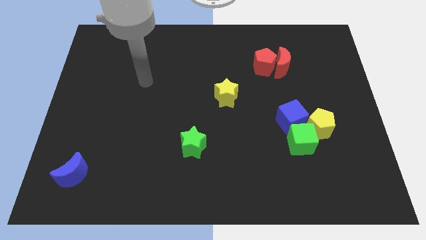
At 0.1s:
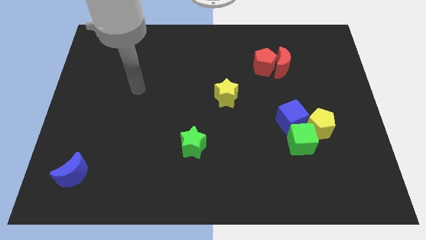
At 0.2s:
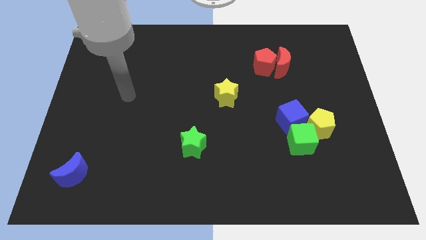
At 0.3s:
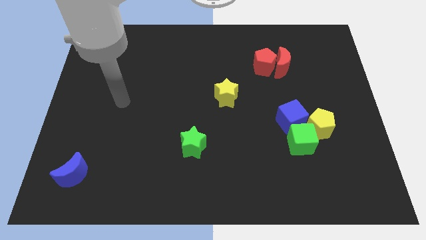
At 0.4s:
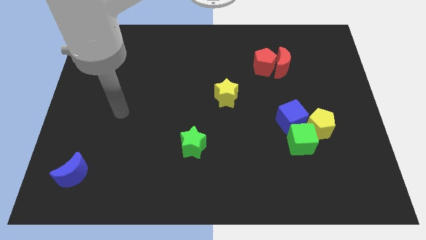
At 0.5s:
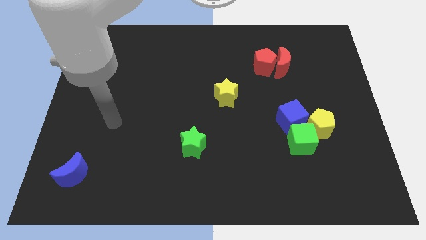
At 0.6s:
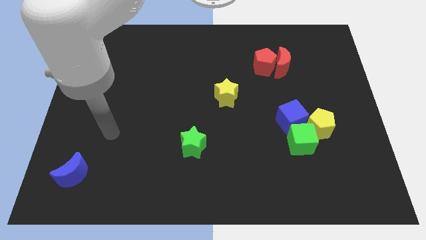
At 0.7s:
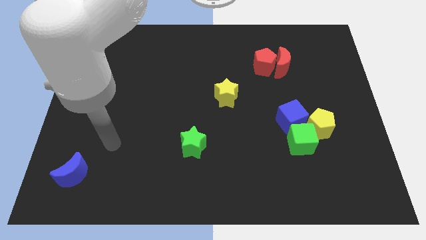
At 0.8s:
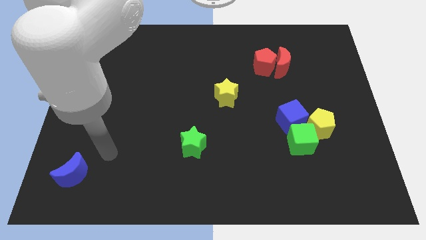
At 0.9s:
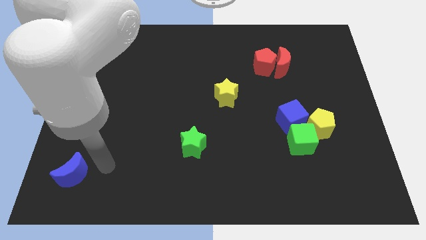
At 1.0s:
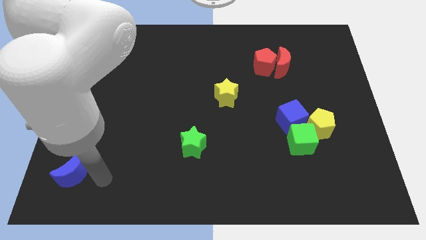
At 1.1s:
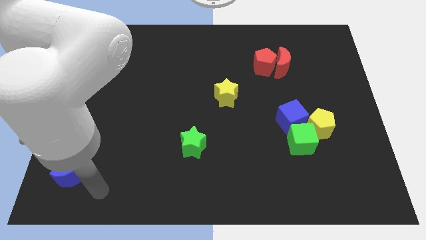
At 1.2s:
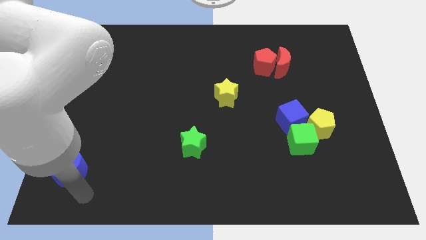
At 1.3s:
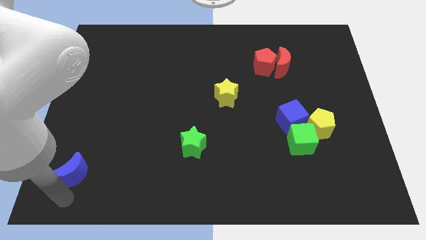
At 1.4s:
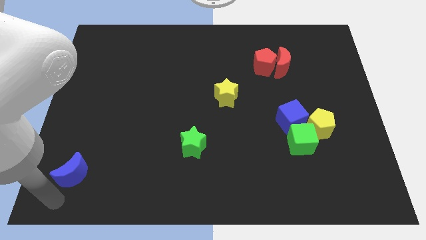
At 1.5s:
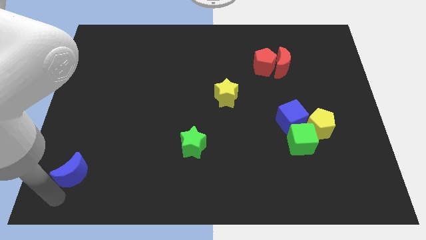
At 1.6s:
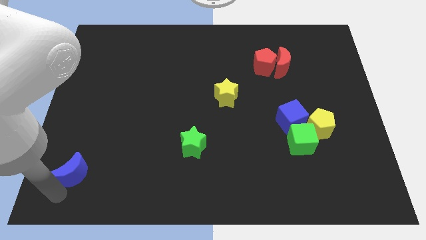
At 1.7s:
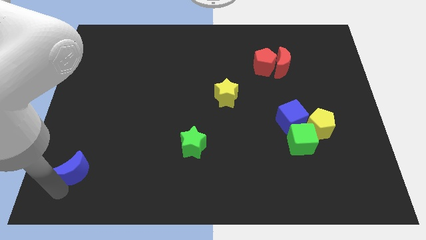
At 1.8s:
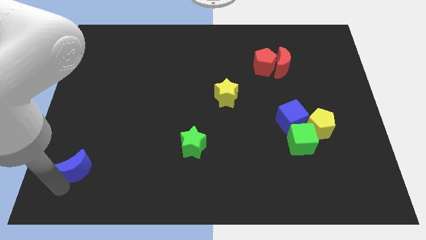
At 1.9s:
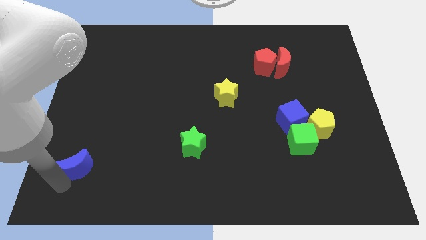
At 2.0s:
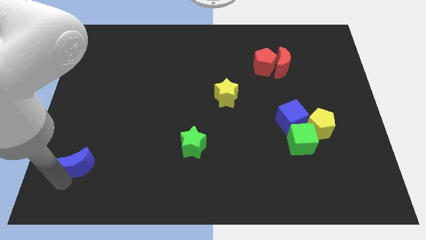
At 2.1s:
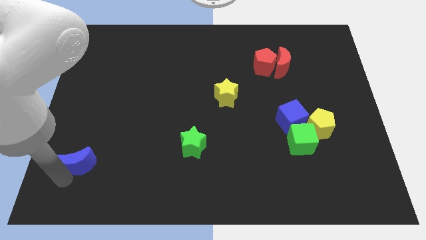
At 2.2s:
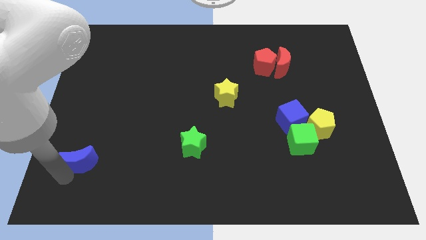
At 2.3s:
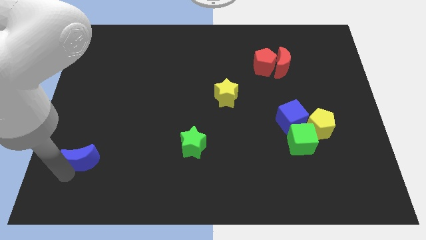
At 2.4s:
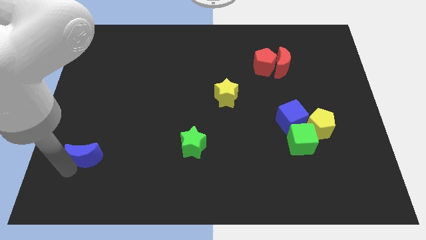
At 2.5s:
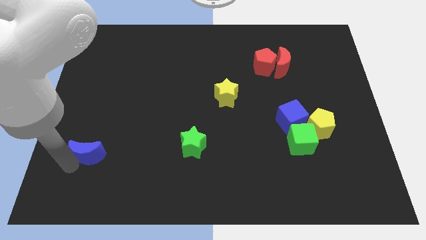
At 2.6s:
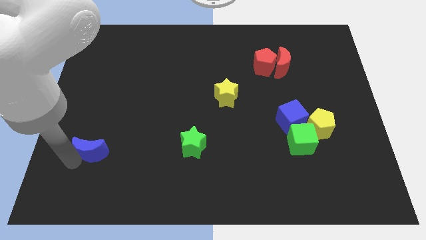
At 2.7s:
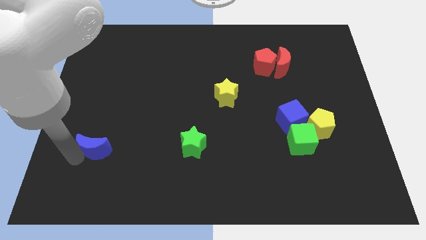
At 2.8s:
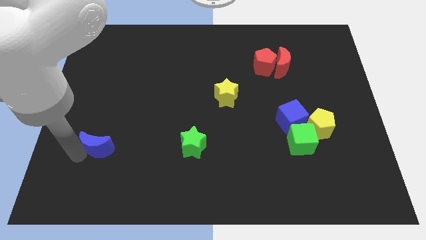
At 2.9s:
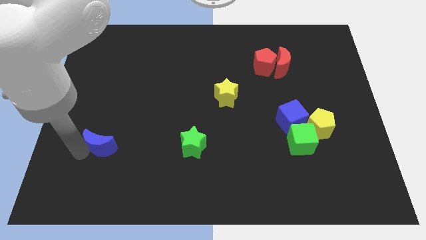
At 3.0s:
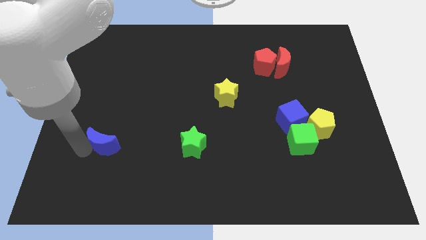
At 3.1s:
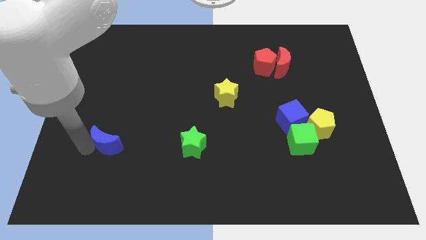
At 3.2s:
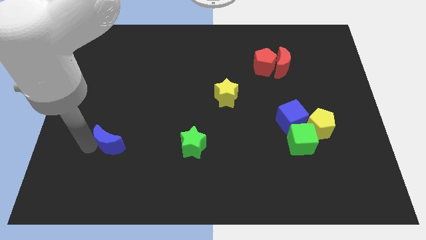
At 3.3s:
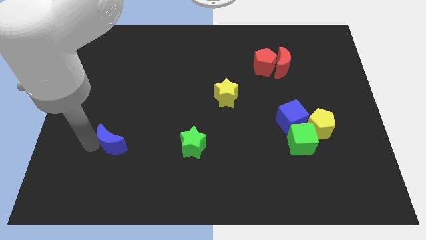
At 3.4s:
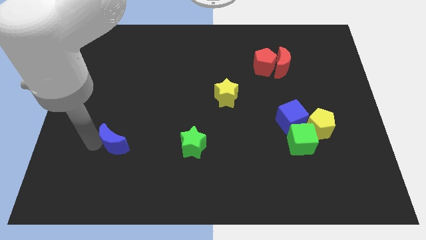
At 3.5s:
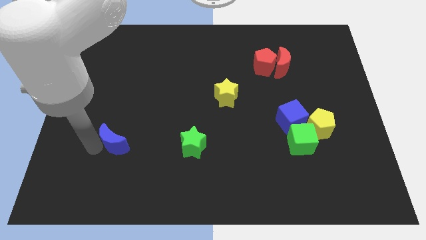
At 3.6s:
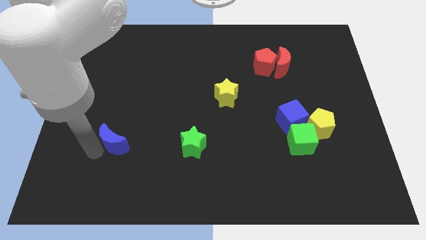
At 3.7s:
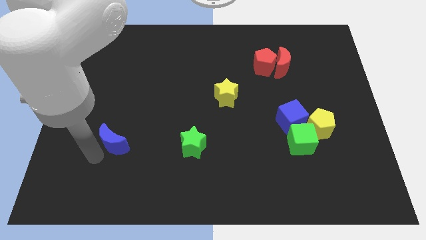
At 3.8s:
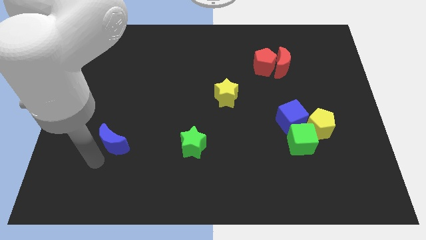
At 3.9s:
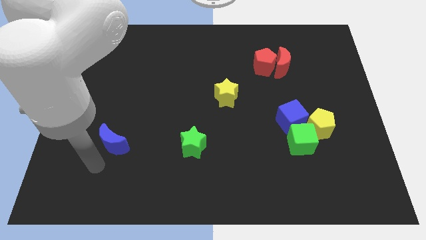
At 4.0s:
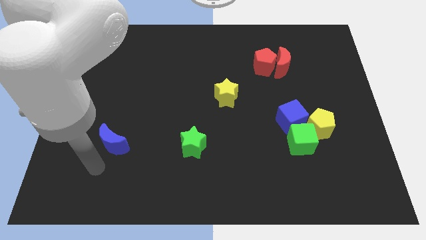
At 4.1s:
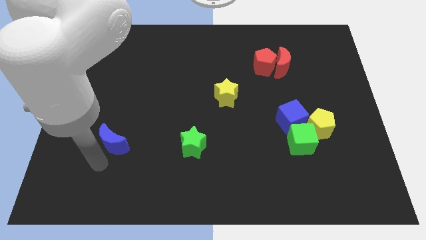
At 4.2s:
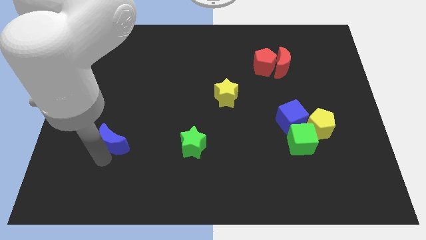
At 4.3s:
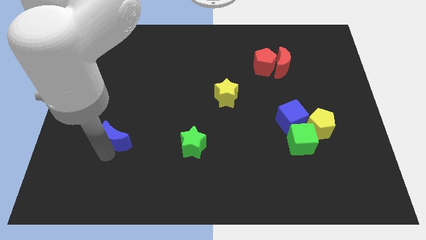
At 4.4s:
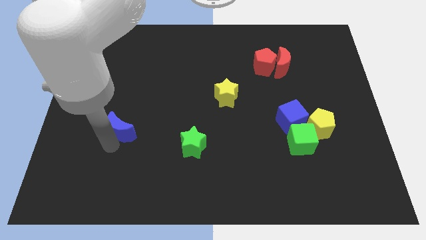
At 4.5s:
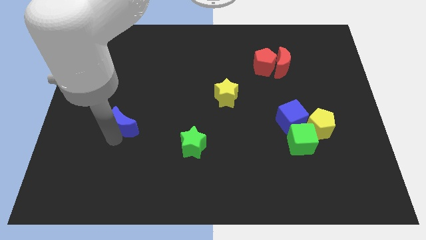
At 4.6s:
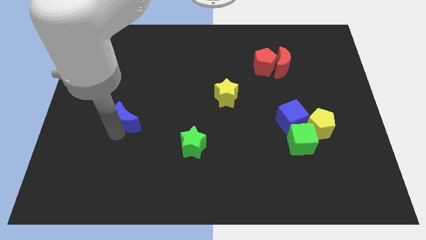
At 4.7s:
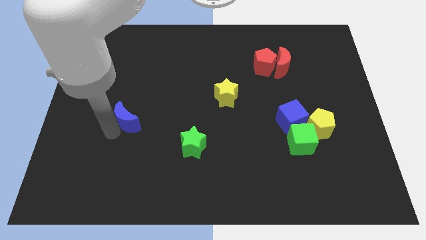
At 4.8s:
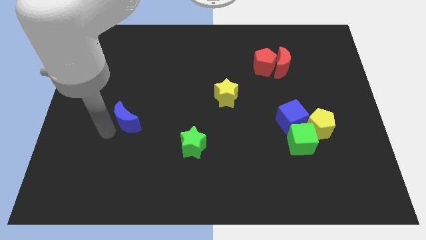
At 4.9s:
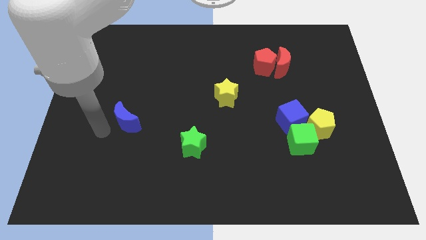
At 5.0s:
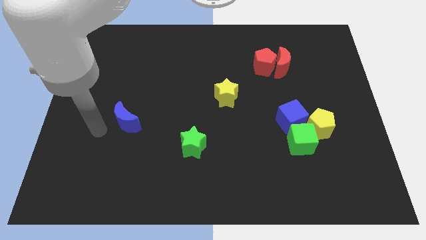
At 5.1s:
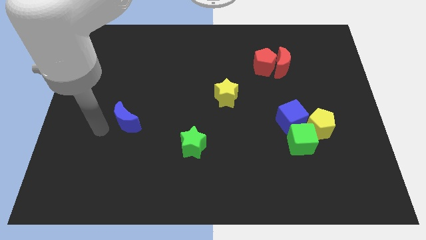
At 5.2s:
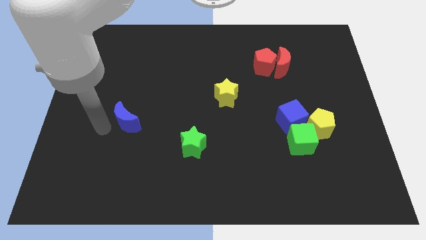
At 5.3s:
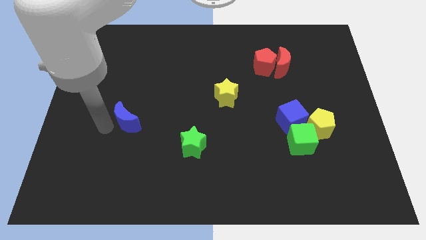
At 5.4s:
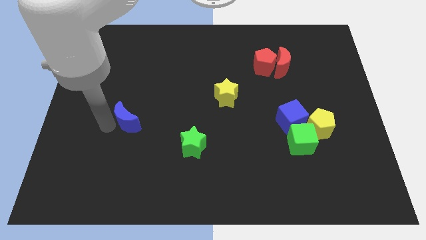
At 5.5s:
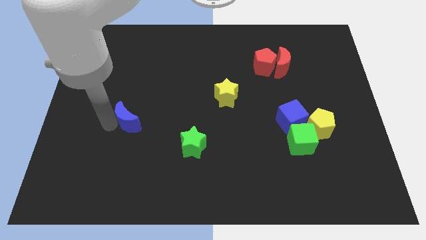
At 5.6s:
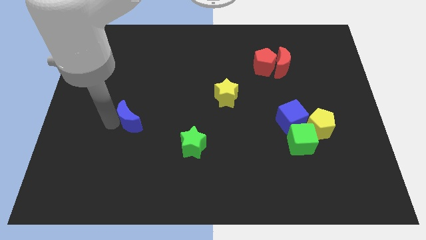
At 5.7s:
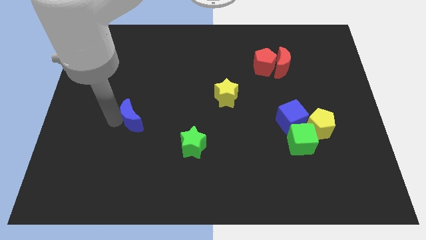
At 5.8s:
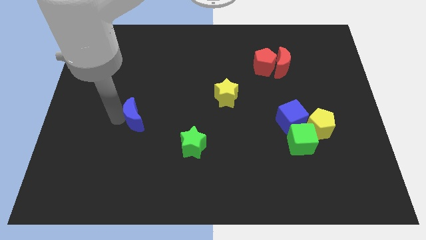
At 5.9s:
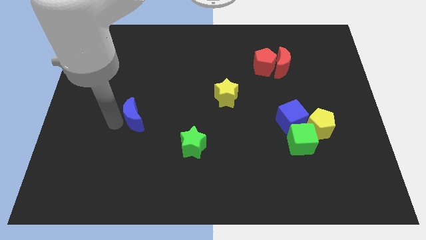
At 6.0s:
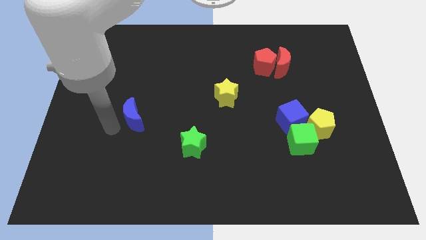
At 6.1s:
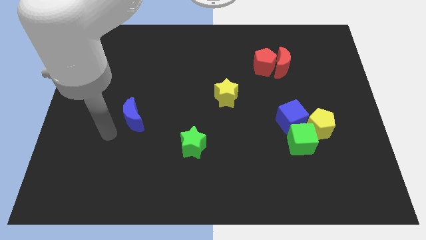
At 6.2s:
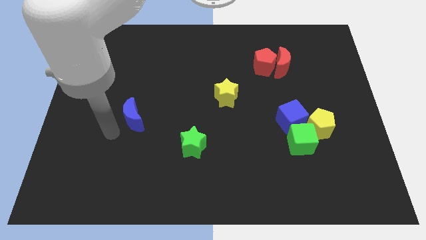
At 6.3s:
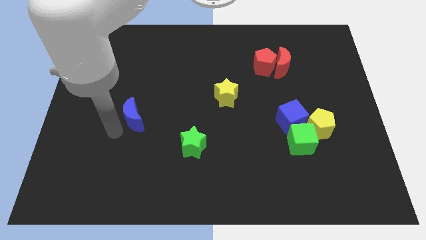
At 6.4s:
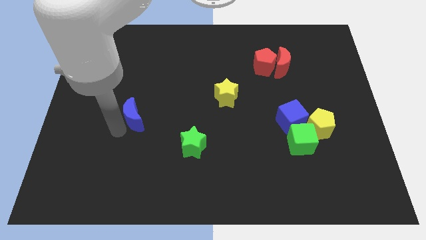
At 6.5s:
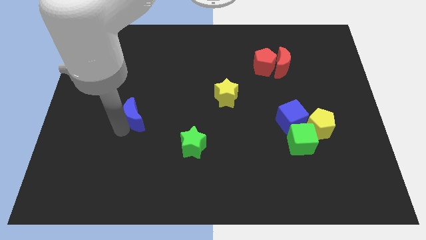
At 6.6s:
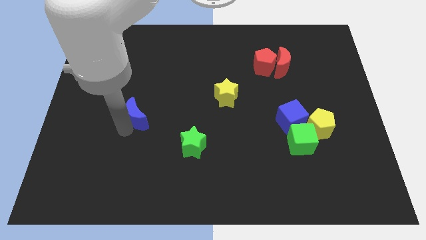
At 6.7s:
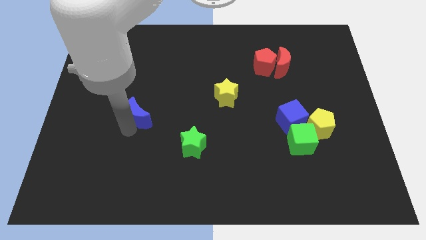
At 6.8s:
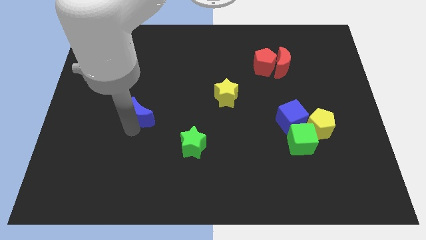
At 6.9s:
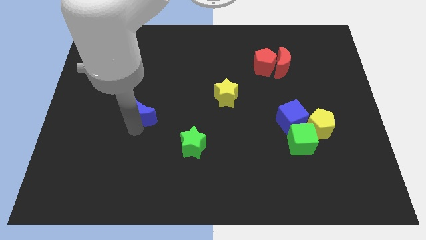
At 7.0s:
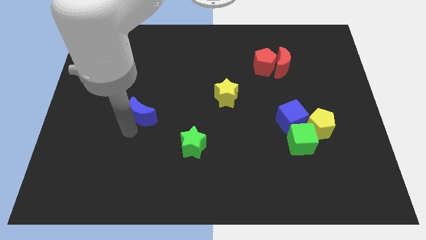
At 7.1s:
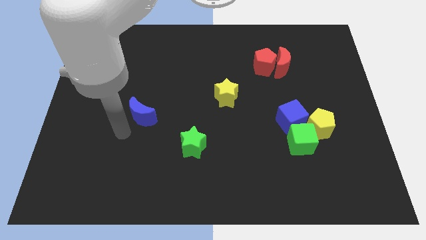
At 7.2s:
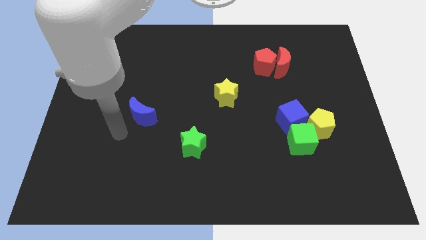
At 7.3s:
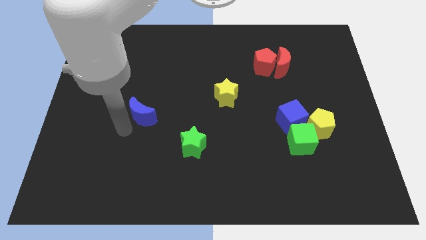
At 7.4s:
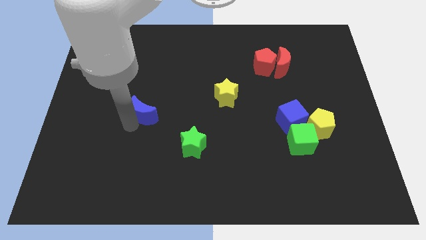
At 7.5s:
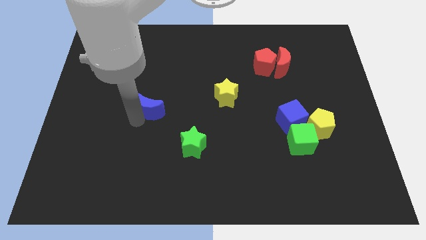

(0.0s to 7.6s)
slide the blue moon up and to the right

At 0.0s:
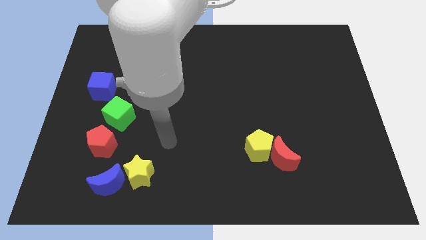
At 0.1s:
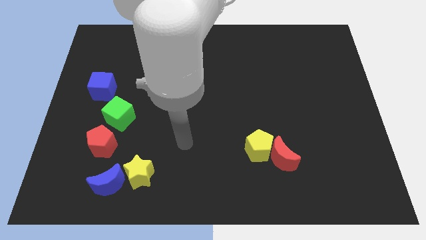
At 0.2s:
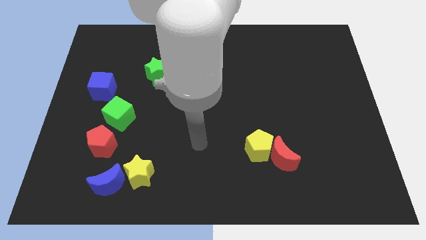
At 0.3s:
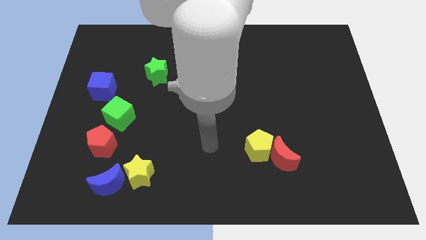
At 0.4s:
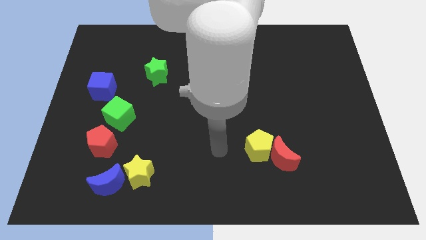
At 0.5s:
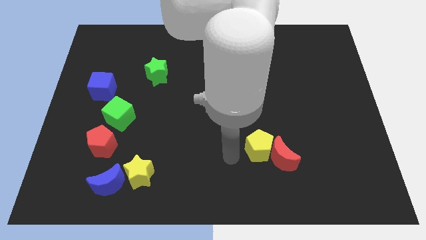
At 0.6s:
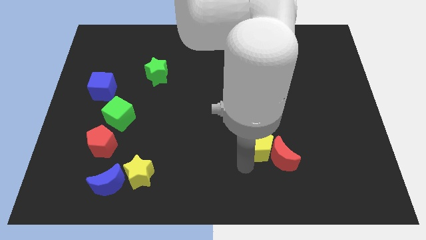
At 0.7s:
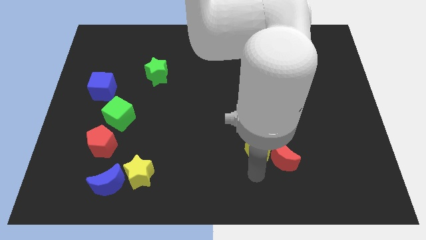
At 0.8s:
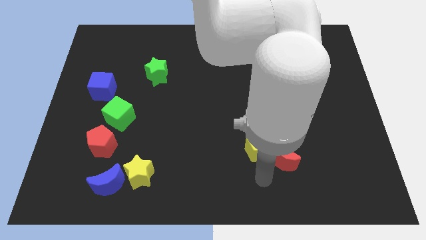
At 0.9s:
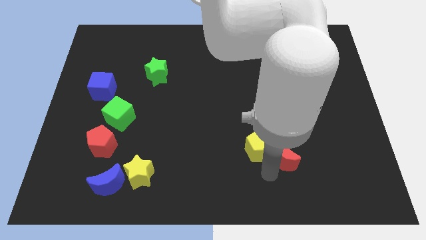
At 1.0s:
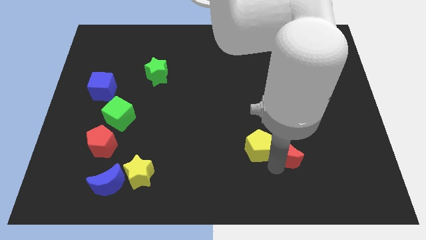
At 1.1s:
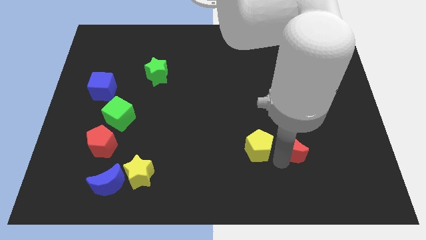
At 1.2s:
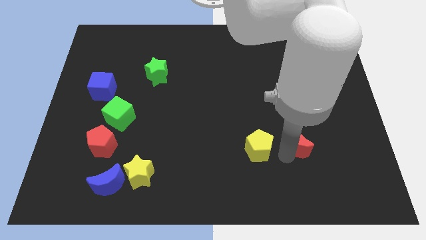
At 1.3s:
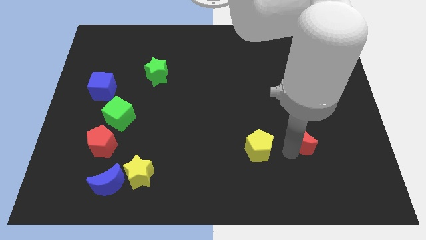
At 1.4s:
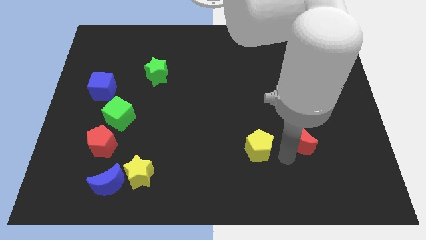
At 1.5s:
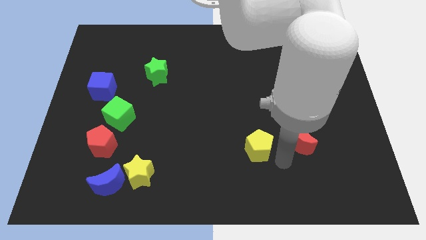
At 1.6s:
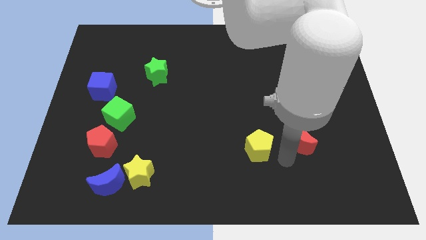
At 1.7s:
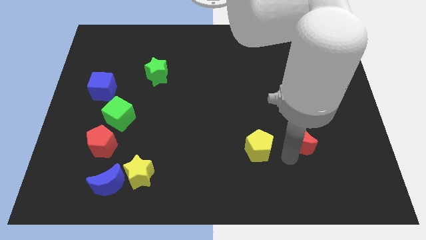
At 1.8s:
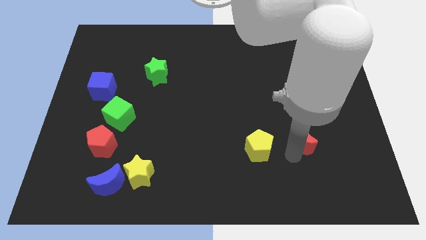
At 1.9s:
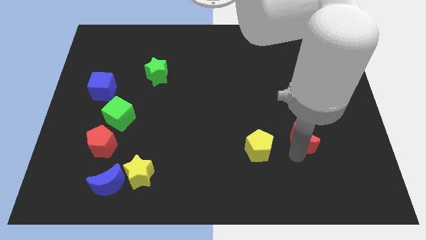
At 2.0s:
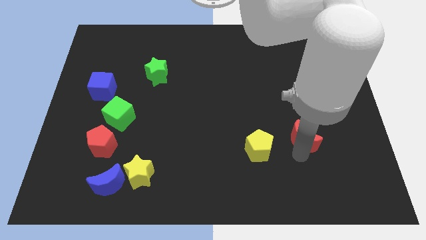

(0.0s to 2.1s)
slightly push the red moon up and right diagonally
